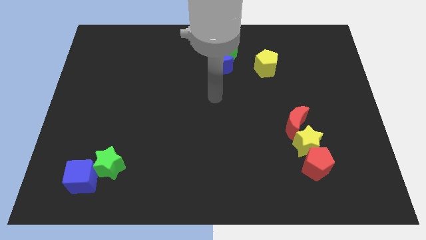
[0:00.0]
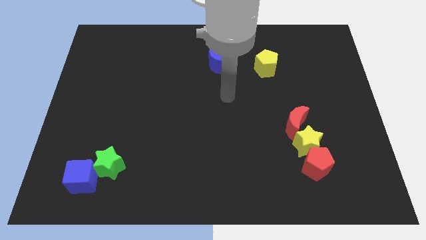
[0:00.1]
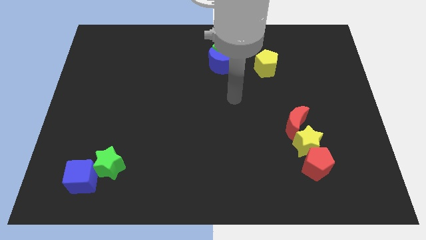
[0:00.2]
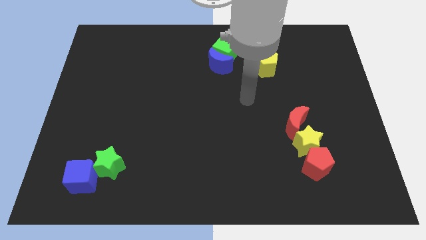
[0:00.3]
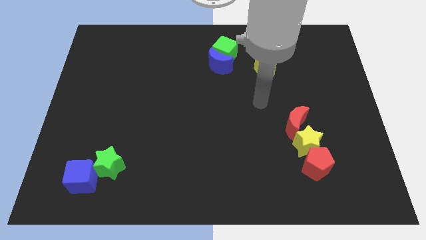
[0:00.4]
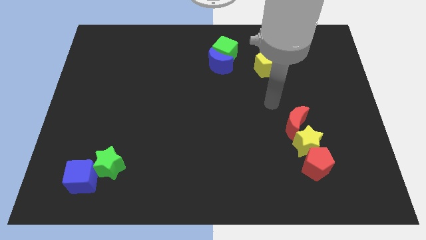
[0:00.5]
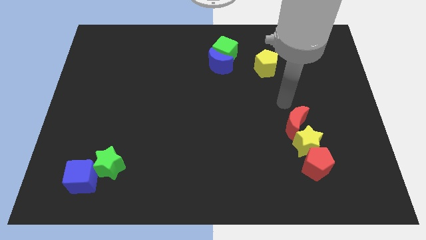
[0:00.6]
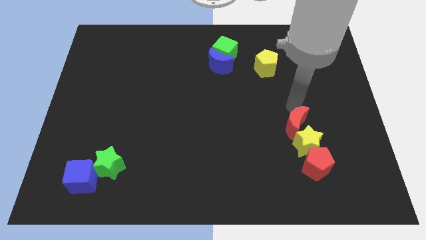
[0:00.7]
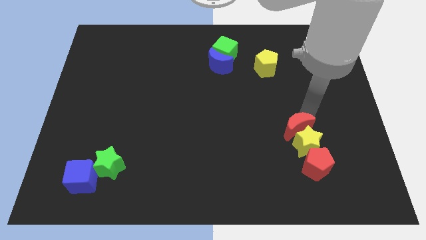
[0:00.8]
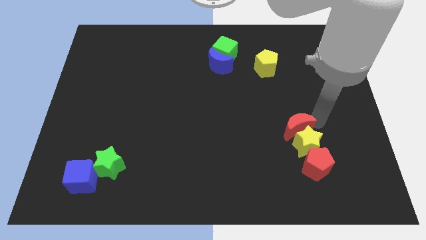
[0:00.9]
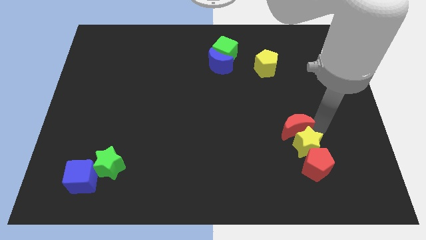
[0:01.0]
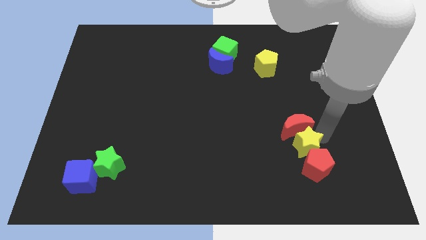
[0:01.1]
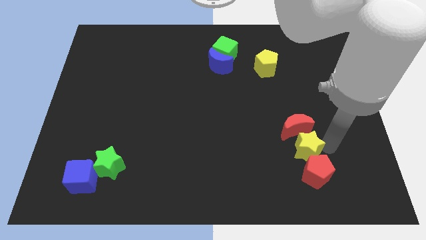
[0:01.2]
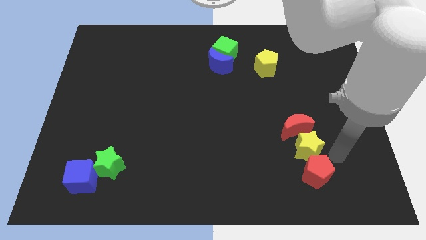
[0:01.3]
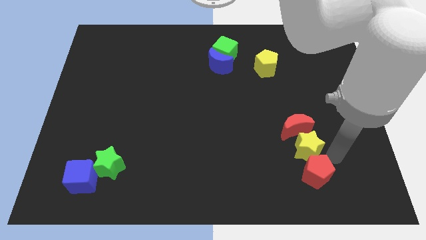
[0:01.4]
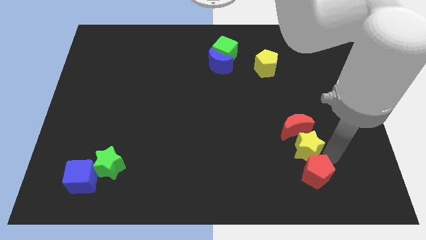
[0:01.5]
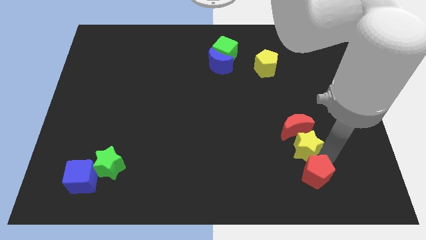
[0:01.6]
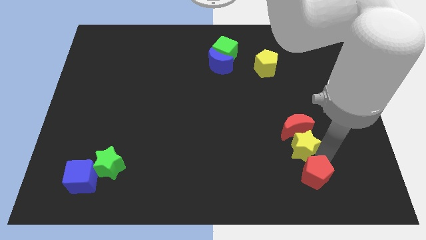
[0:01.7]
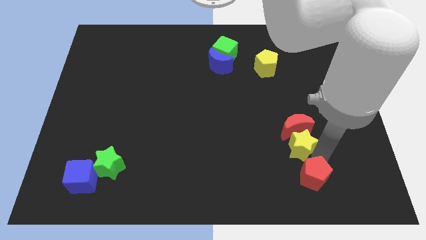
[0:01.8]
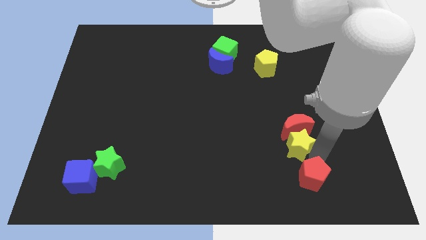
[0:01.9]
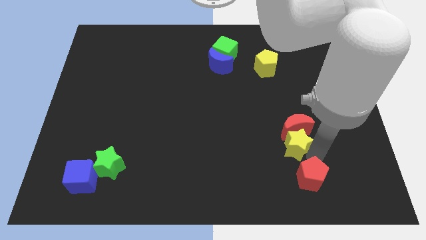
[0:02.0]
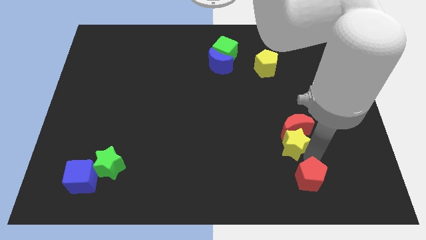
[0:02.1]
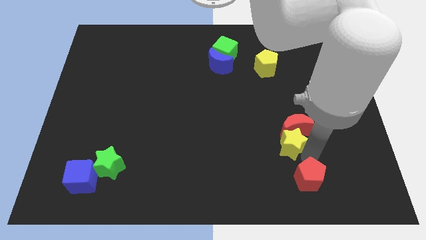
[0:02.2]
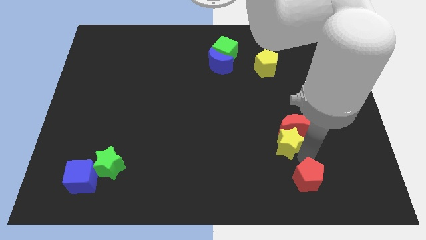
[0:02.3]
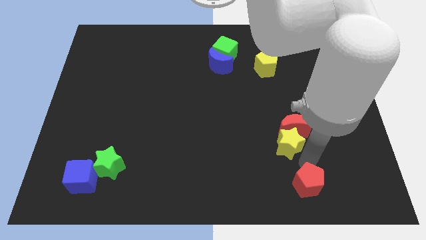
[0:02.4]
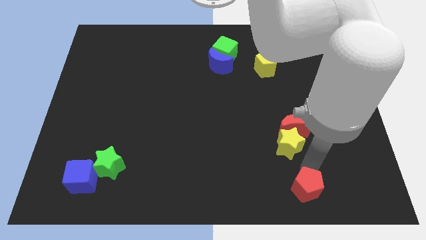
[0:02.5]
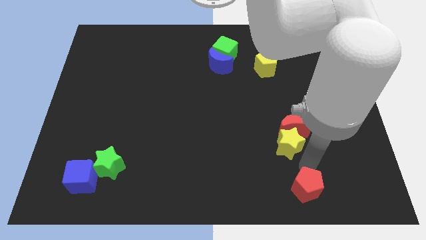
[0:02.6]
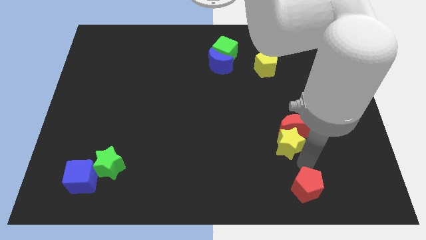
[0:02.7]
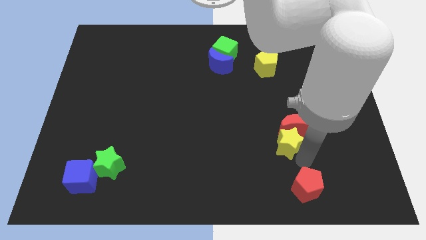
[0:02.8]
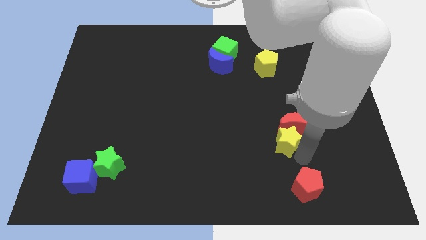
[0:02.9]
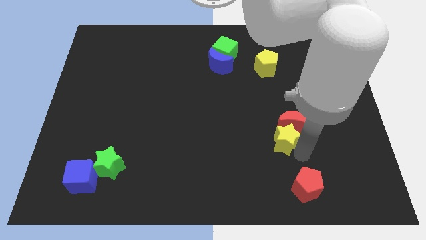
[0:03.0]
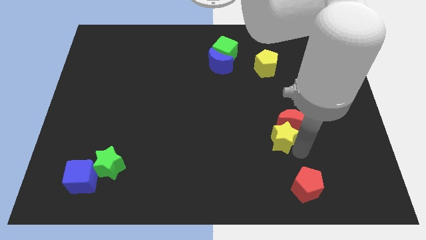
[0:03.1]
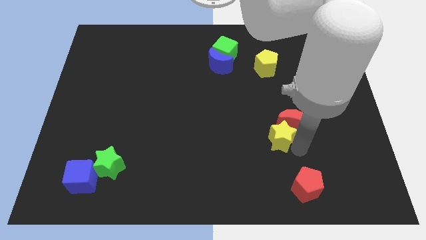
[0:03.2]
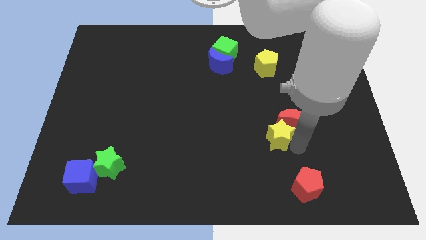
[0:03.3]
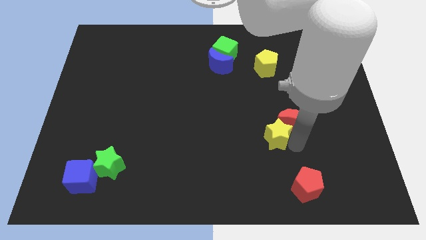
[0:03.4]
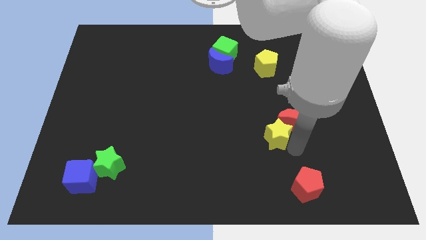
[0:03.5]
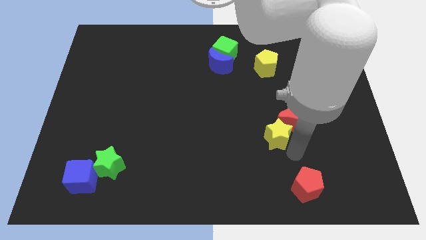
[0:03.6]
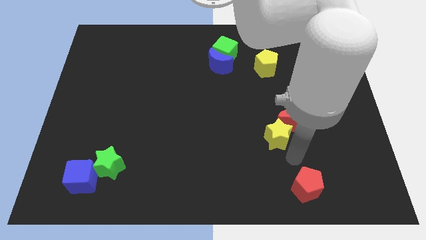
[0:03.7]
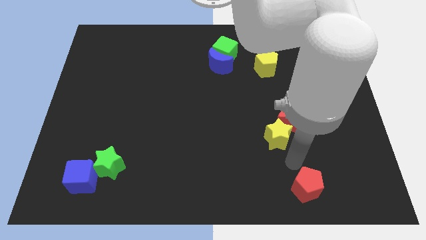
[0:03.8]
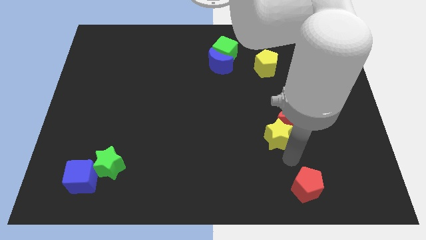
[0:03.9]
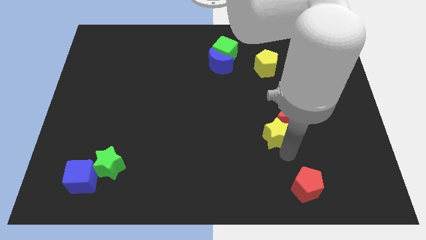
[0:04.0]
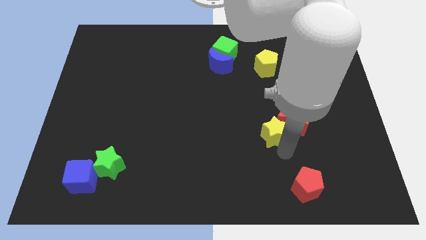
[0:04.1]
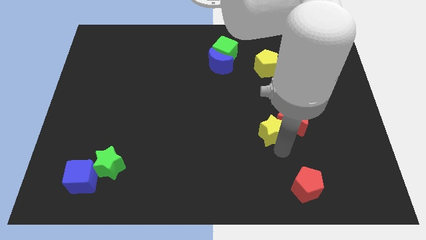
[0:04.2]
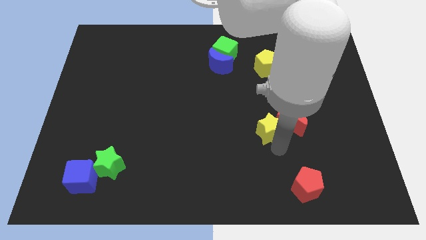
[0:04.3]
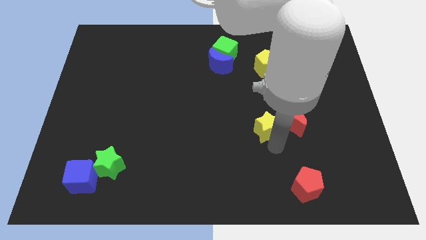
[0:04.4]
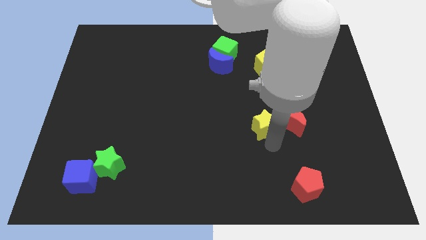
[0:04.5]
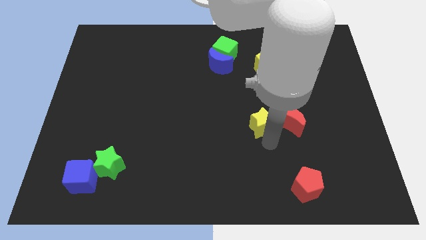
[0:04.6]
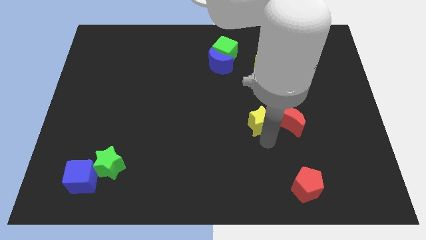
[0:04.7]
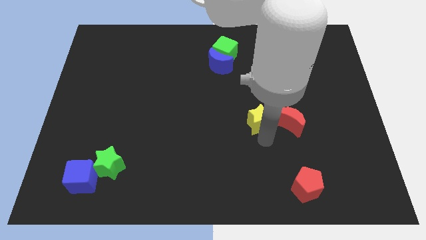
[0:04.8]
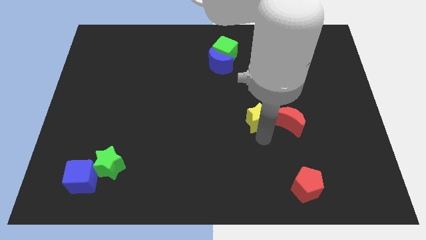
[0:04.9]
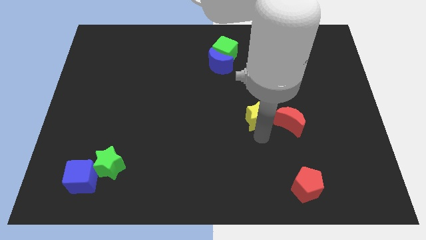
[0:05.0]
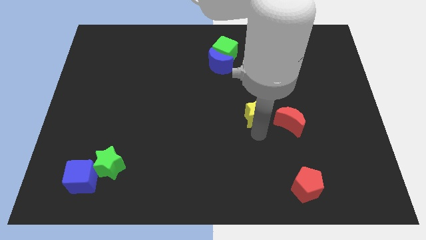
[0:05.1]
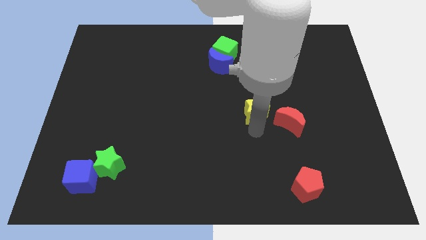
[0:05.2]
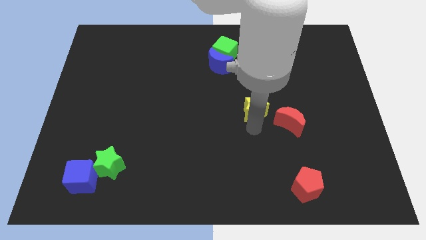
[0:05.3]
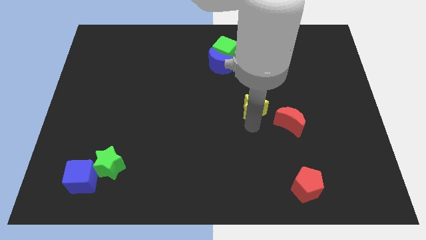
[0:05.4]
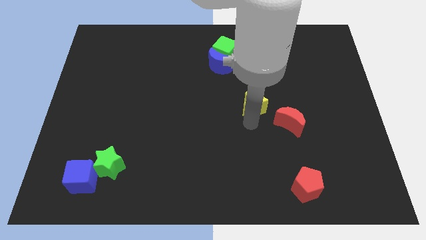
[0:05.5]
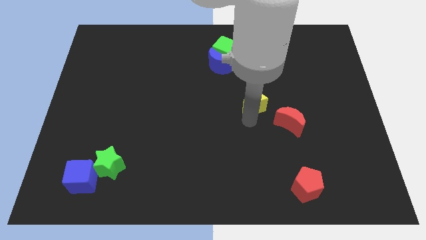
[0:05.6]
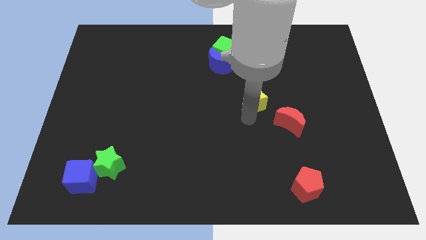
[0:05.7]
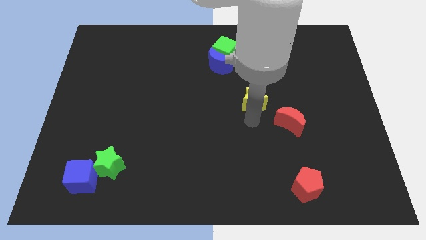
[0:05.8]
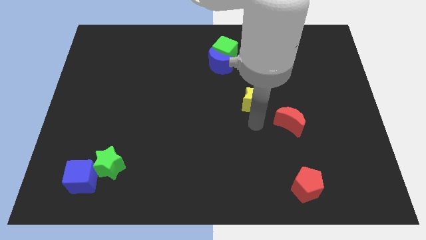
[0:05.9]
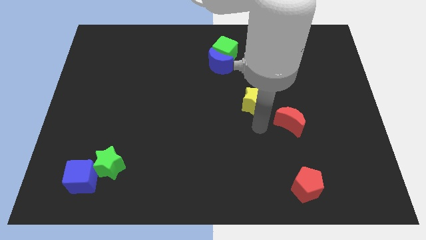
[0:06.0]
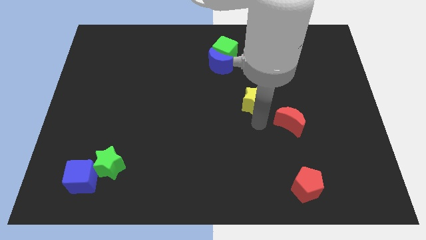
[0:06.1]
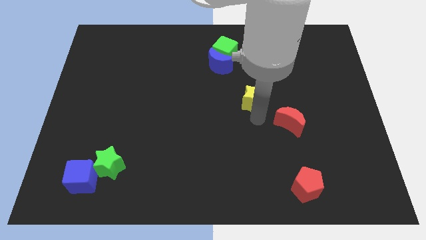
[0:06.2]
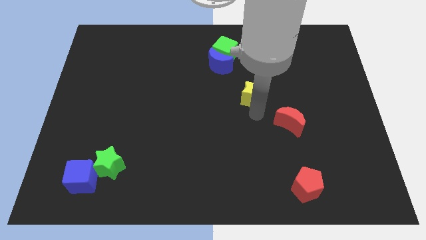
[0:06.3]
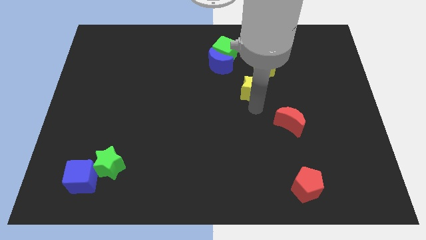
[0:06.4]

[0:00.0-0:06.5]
slide the yellow star to the bottom right of the blue moon

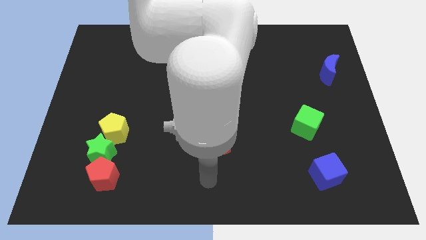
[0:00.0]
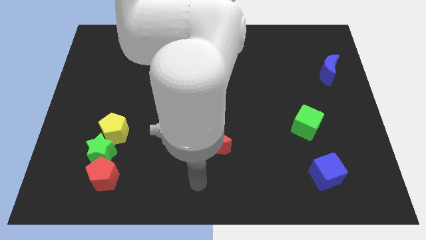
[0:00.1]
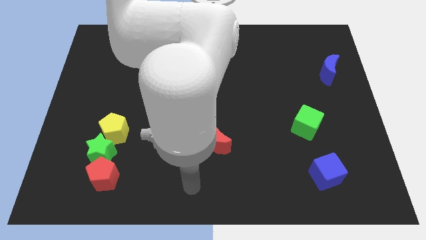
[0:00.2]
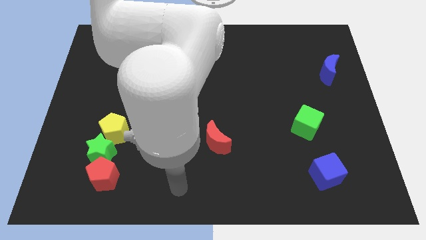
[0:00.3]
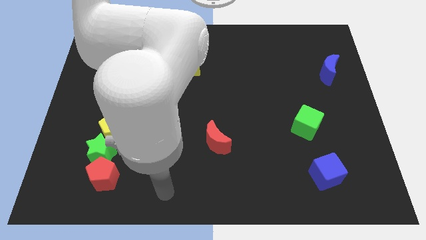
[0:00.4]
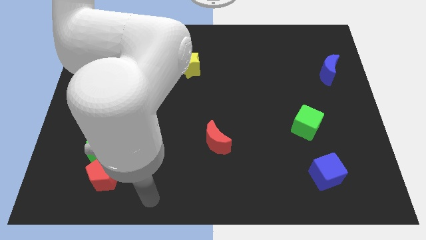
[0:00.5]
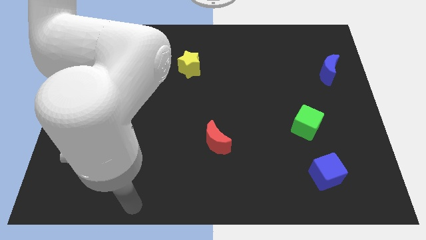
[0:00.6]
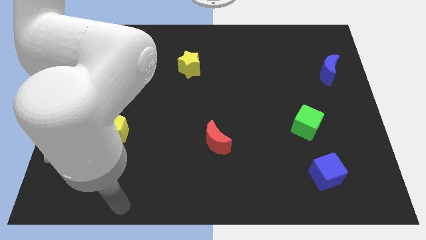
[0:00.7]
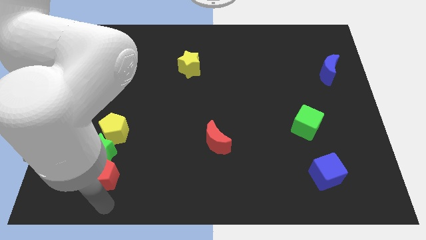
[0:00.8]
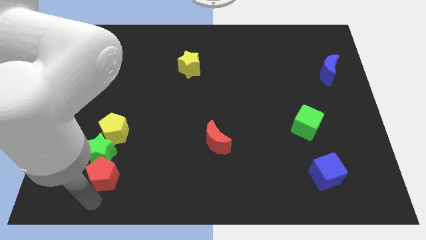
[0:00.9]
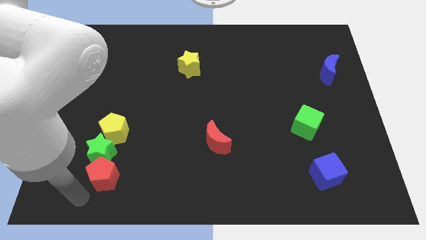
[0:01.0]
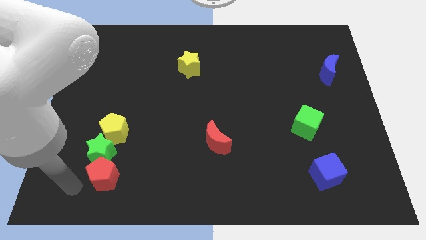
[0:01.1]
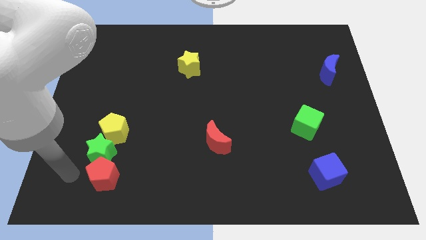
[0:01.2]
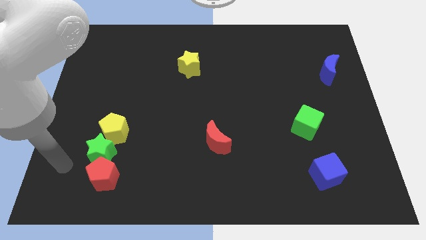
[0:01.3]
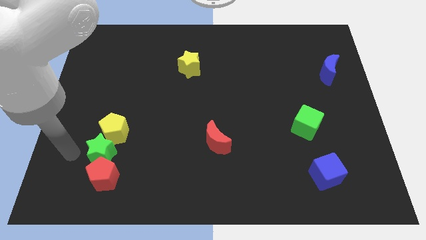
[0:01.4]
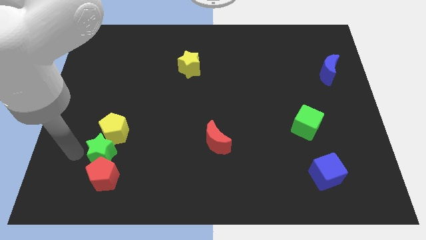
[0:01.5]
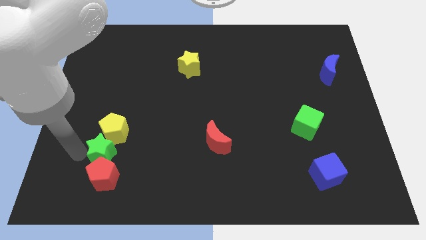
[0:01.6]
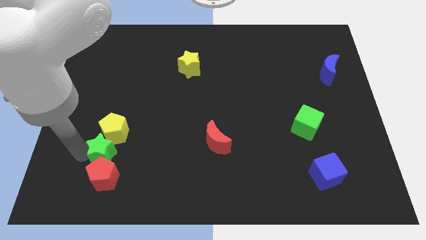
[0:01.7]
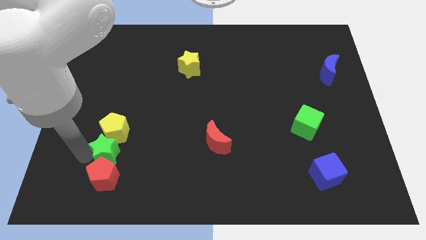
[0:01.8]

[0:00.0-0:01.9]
put the green star diagonally down and to the right of the yellow pentagon
